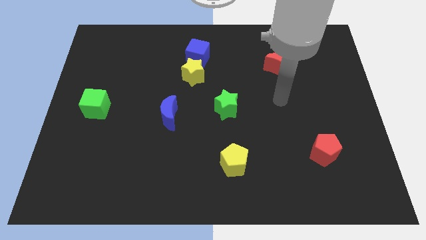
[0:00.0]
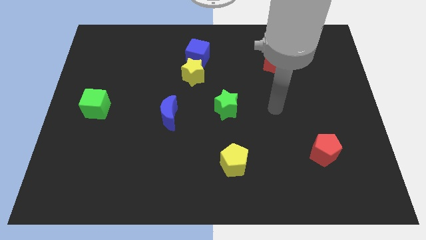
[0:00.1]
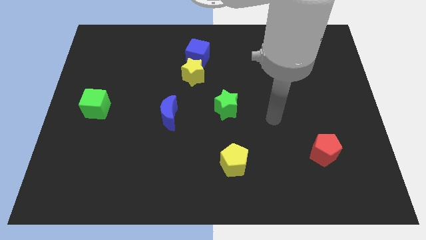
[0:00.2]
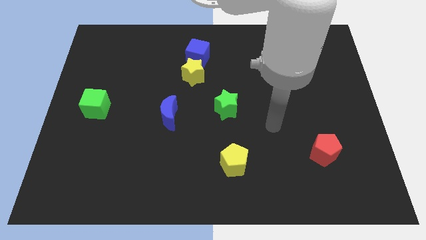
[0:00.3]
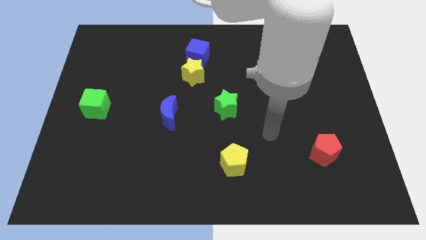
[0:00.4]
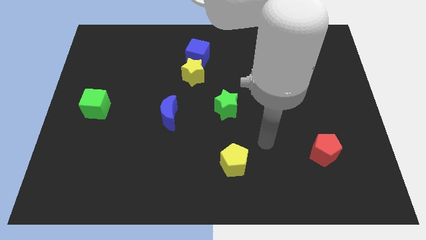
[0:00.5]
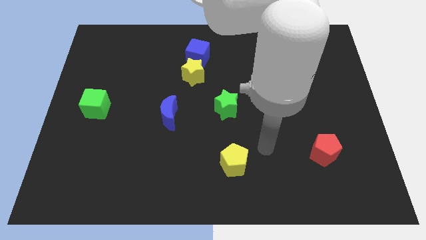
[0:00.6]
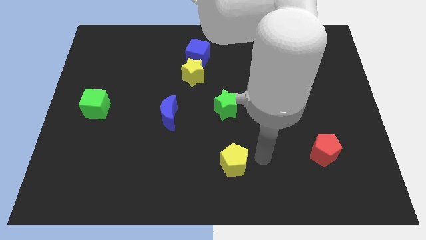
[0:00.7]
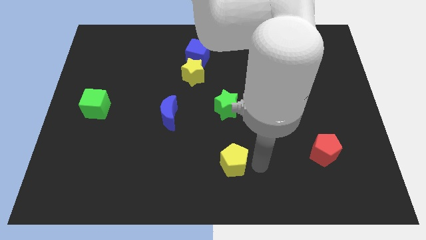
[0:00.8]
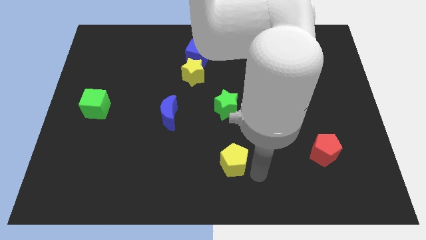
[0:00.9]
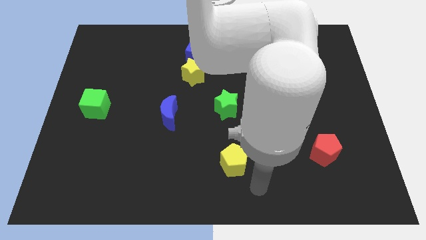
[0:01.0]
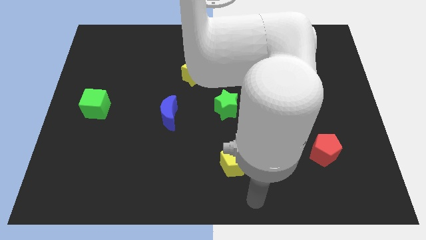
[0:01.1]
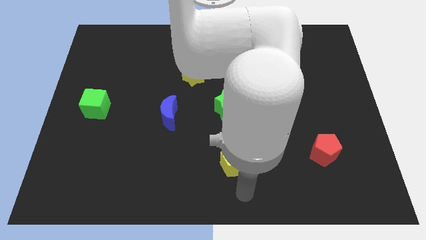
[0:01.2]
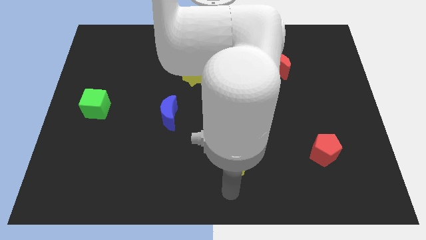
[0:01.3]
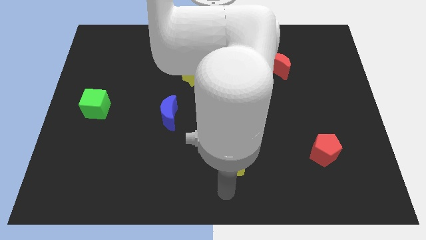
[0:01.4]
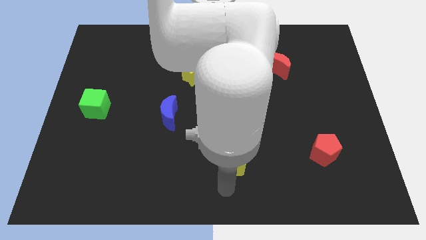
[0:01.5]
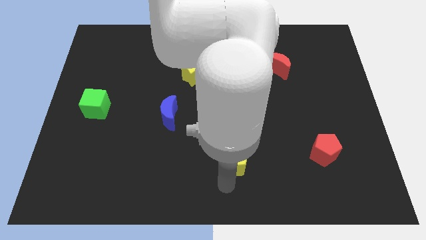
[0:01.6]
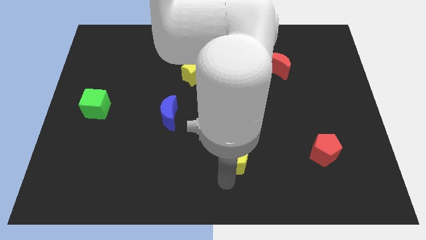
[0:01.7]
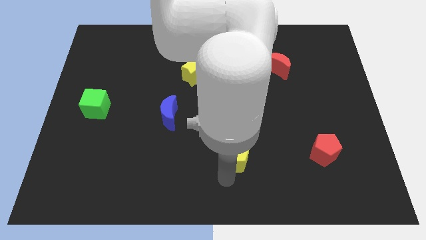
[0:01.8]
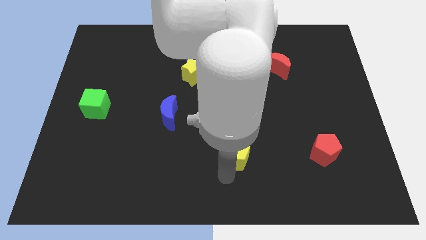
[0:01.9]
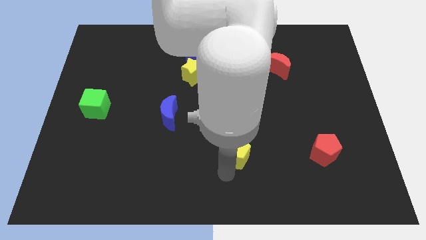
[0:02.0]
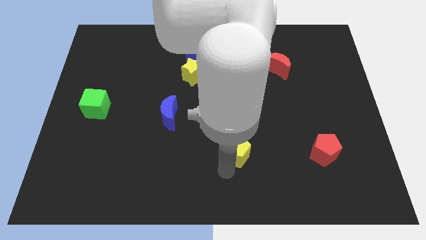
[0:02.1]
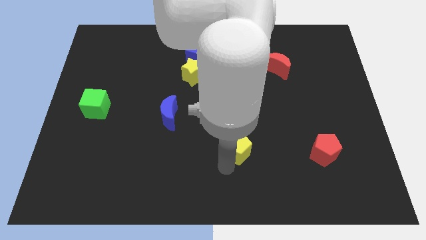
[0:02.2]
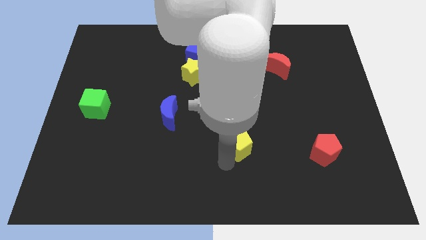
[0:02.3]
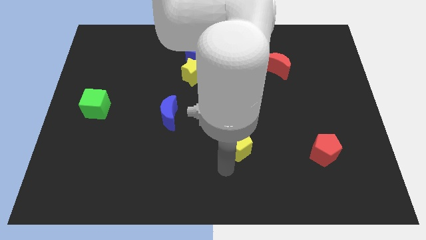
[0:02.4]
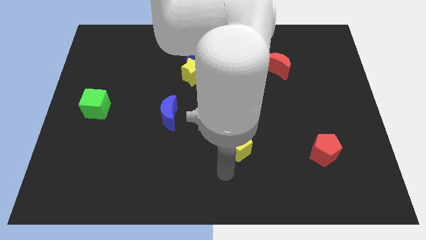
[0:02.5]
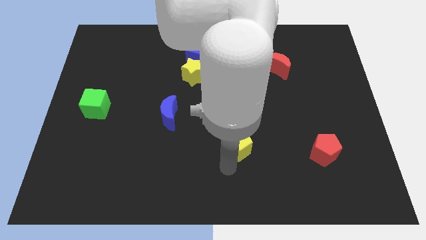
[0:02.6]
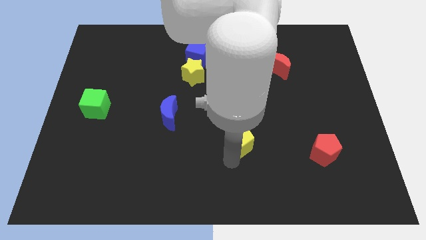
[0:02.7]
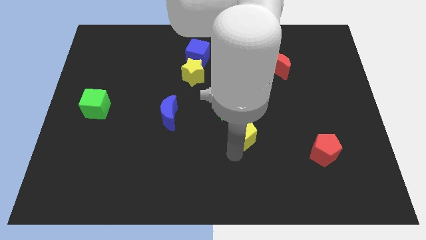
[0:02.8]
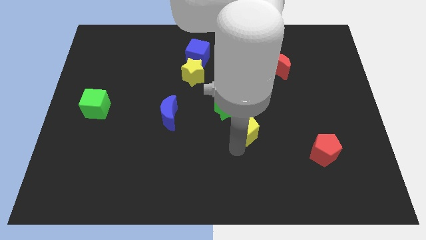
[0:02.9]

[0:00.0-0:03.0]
slide the yellow pentagon a little up

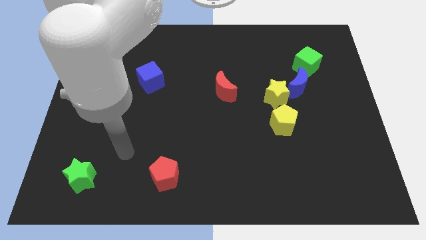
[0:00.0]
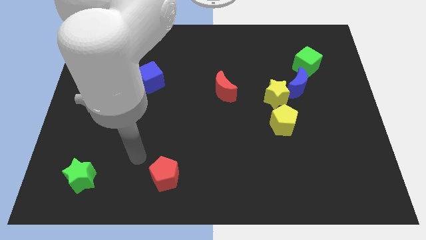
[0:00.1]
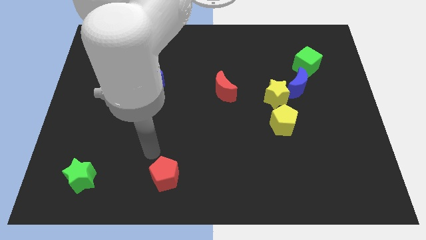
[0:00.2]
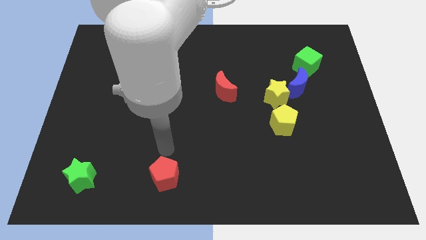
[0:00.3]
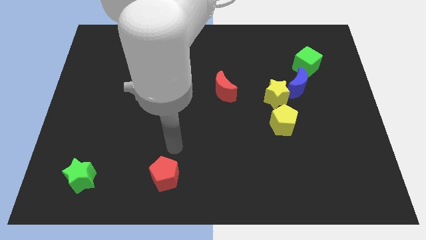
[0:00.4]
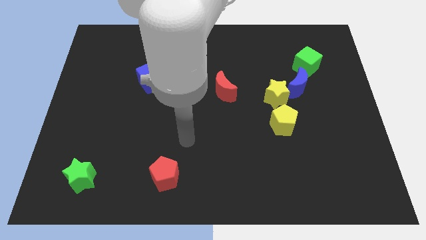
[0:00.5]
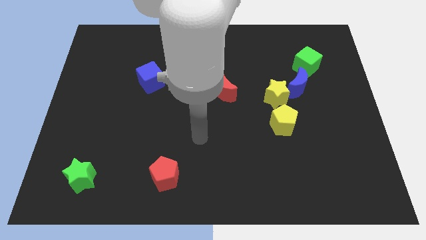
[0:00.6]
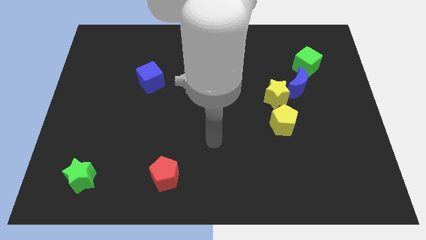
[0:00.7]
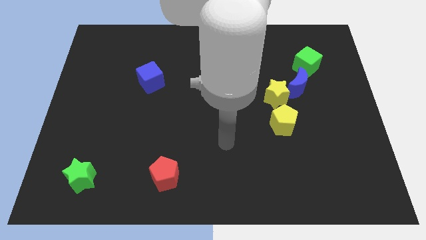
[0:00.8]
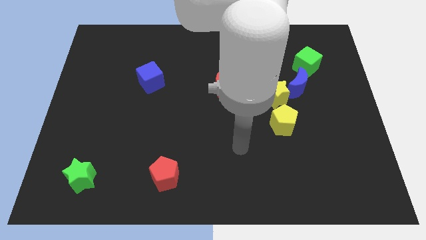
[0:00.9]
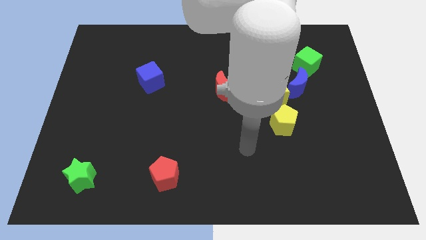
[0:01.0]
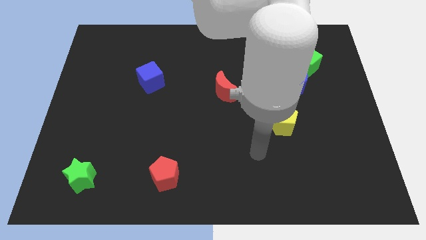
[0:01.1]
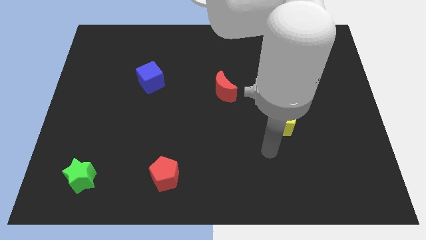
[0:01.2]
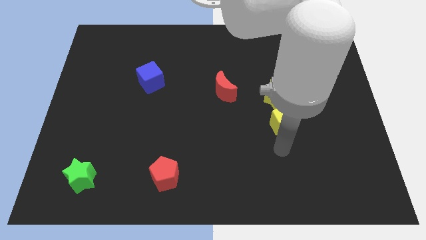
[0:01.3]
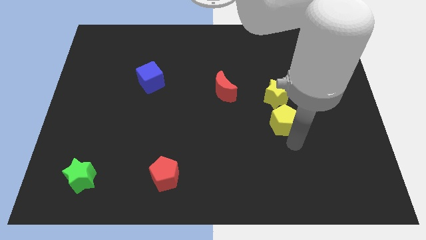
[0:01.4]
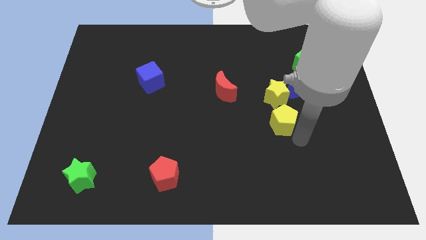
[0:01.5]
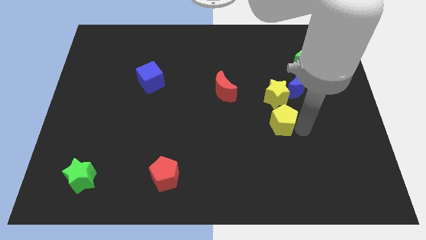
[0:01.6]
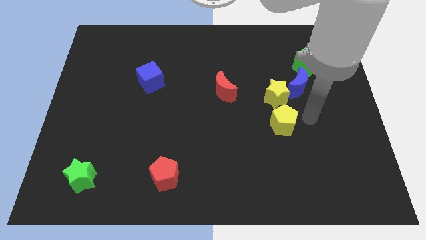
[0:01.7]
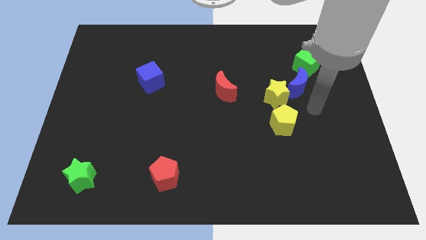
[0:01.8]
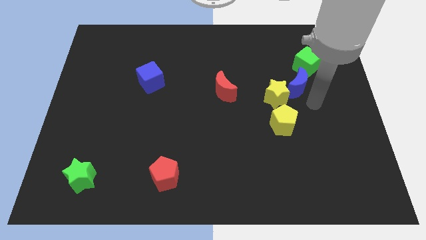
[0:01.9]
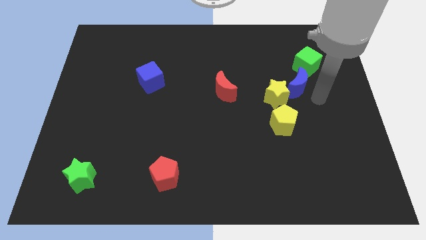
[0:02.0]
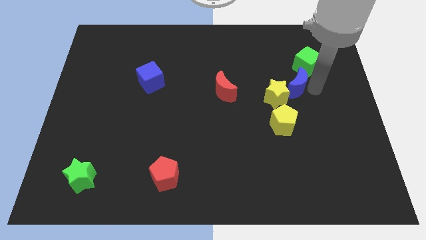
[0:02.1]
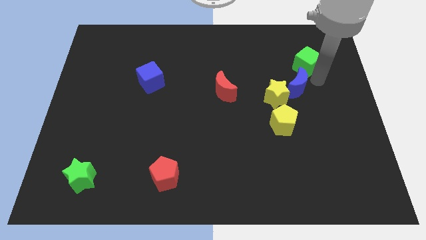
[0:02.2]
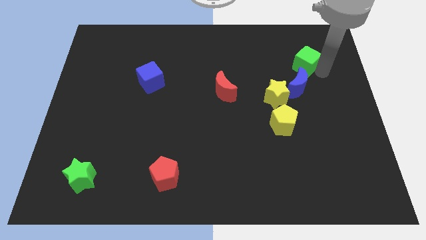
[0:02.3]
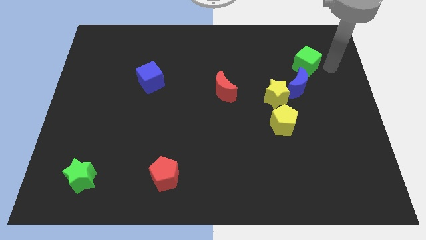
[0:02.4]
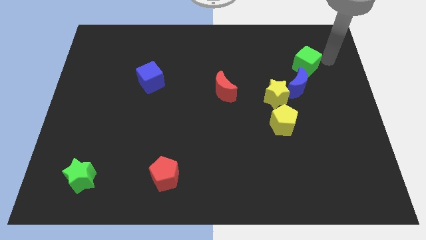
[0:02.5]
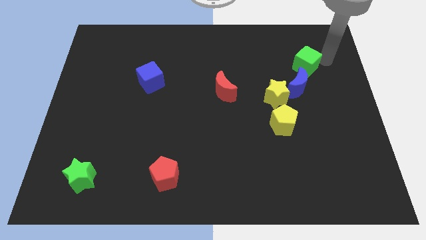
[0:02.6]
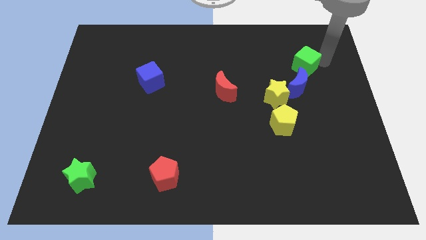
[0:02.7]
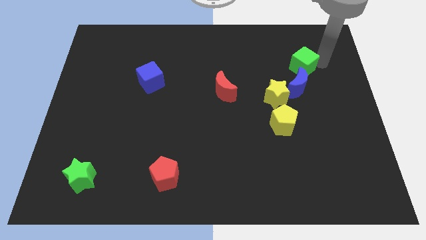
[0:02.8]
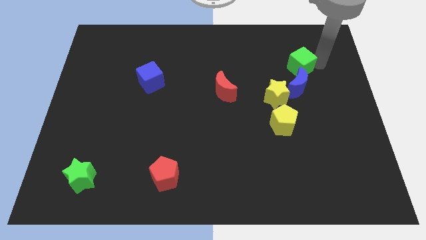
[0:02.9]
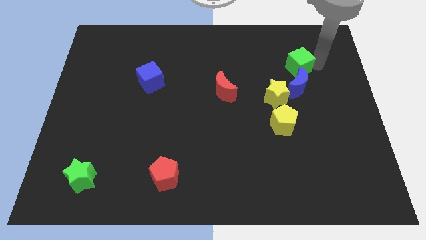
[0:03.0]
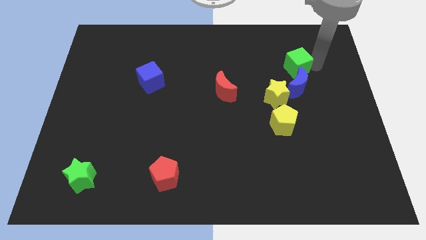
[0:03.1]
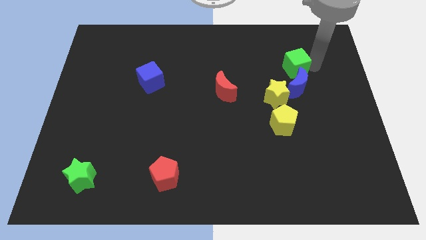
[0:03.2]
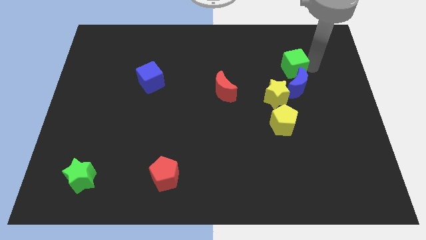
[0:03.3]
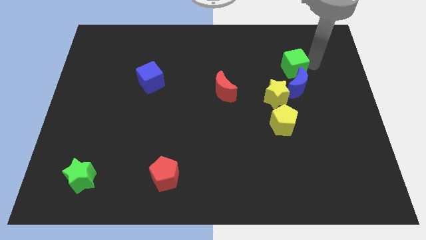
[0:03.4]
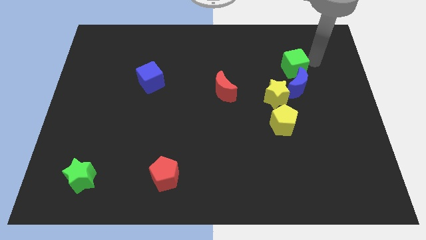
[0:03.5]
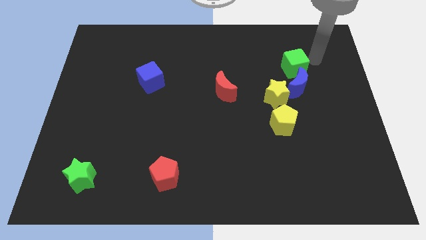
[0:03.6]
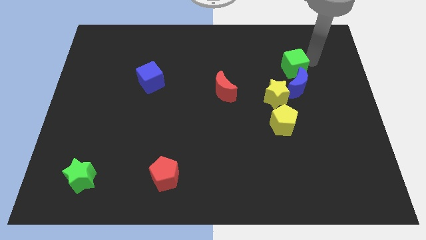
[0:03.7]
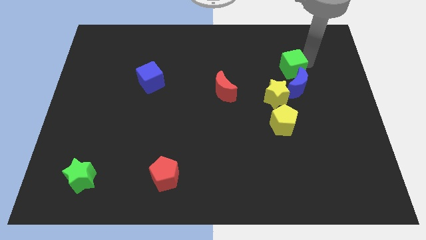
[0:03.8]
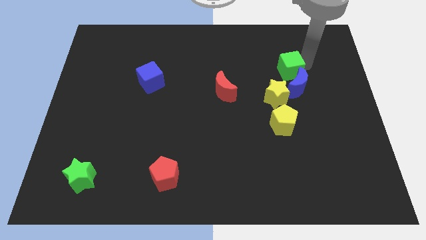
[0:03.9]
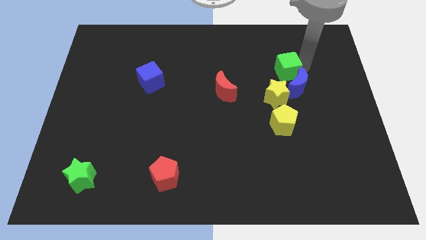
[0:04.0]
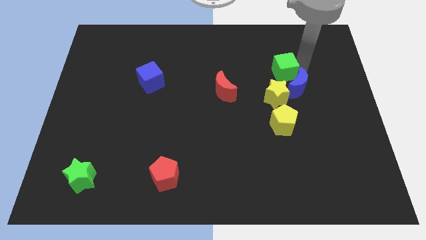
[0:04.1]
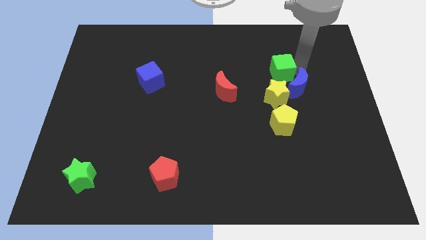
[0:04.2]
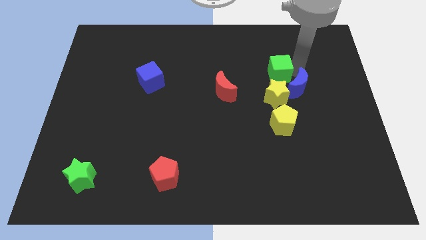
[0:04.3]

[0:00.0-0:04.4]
slide the green cube to the left a little

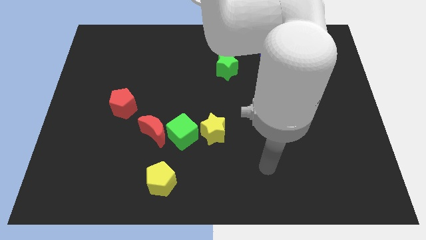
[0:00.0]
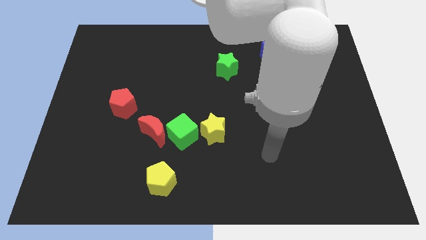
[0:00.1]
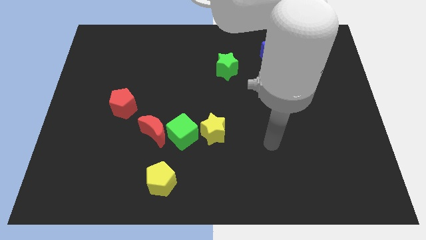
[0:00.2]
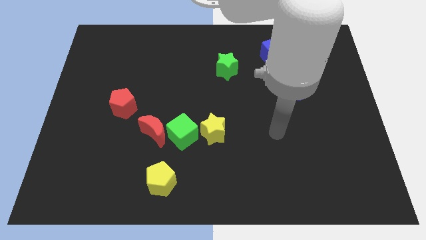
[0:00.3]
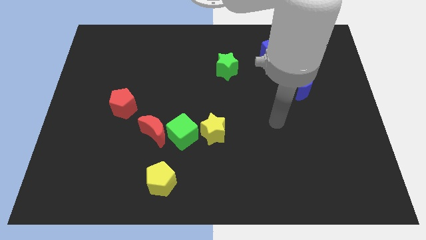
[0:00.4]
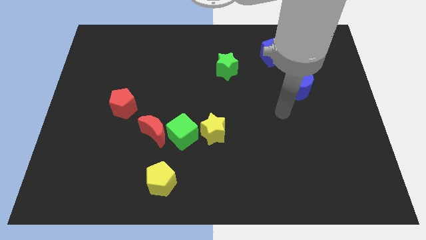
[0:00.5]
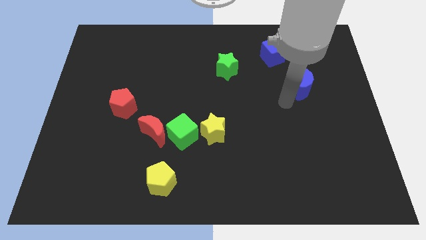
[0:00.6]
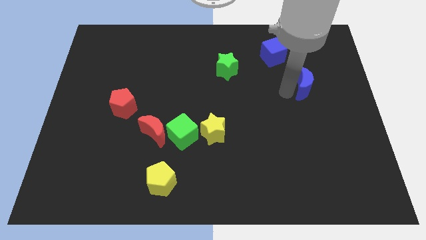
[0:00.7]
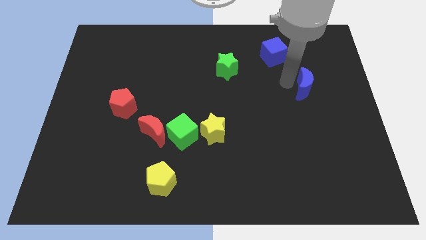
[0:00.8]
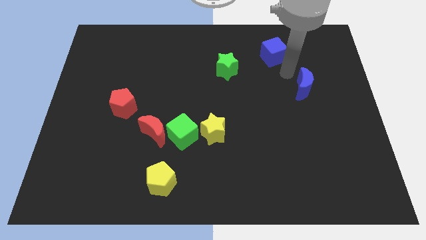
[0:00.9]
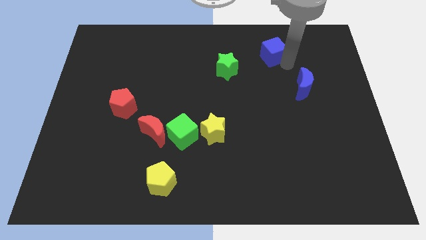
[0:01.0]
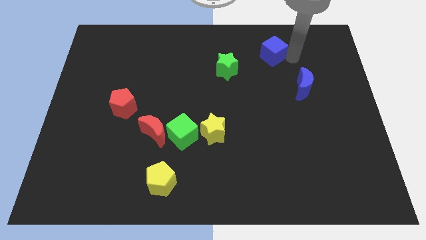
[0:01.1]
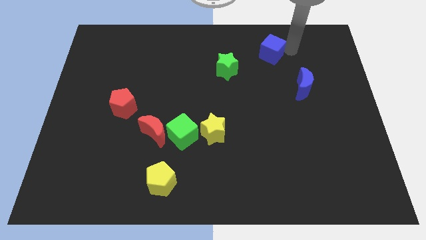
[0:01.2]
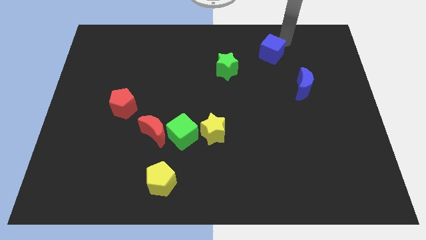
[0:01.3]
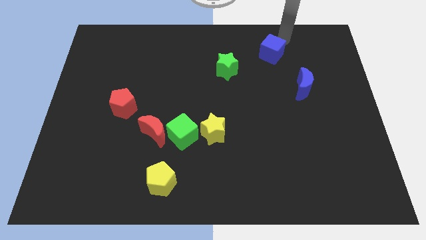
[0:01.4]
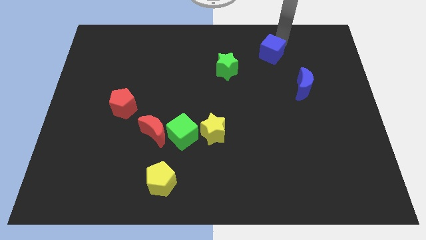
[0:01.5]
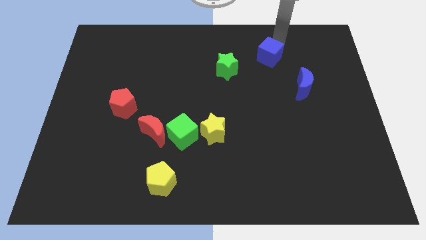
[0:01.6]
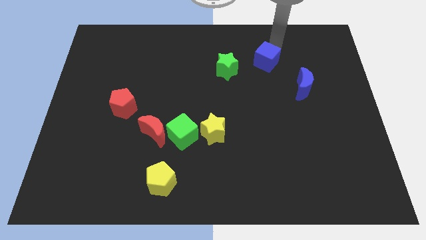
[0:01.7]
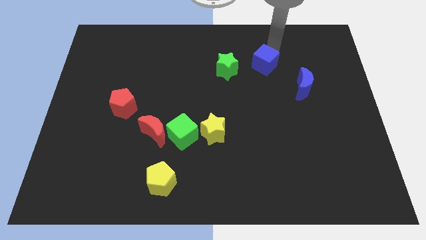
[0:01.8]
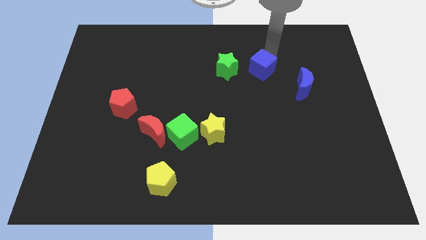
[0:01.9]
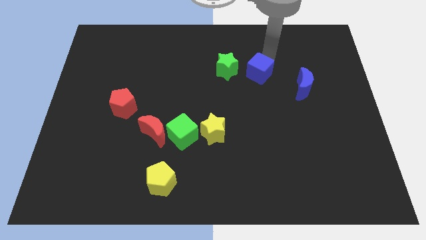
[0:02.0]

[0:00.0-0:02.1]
slightly slide the blue cube diagonally down and left
